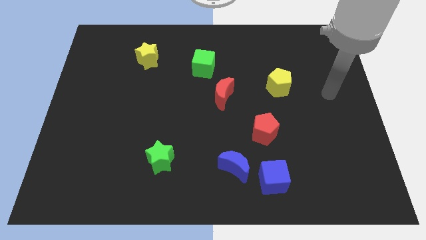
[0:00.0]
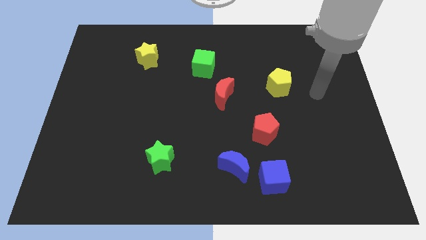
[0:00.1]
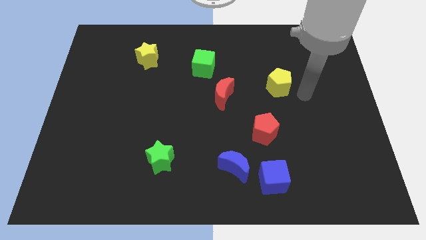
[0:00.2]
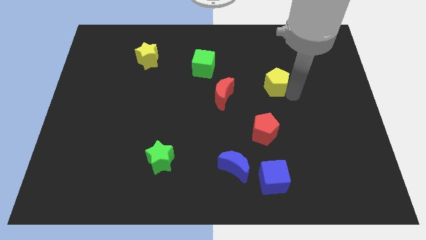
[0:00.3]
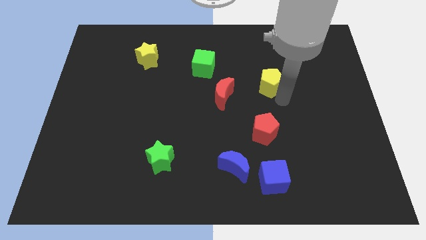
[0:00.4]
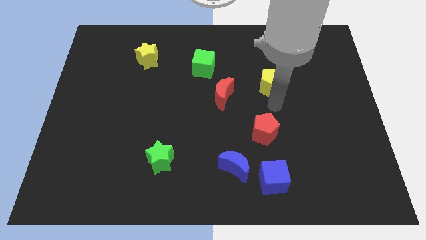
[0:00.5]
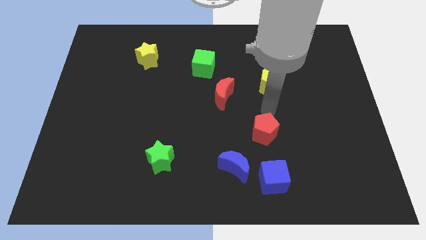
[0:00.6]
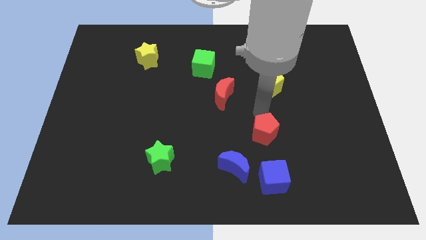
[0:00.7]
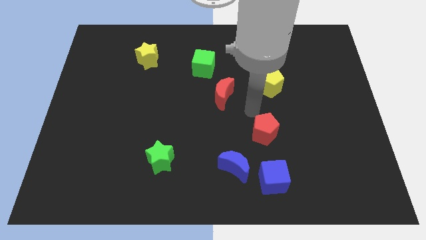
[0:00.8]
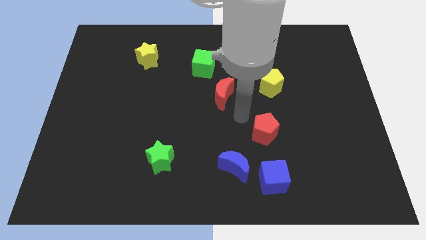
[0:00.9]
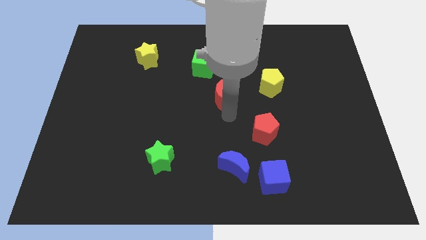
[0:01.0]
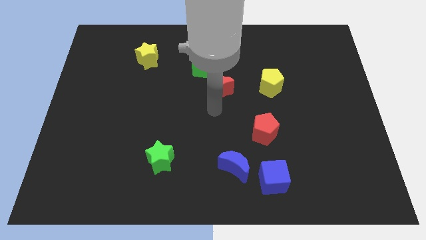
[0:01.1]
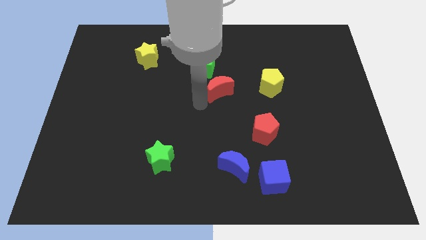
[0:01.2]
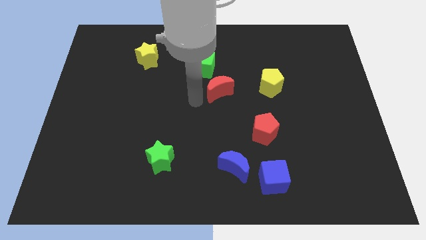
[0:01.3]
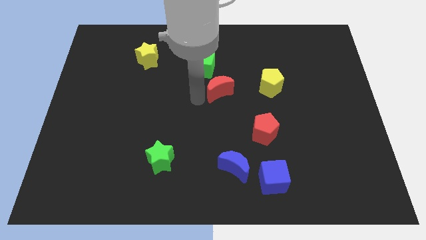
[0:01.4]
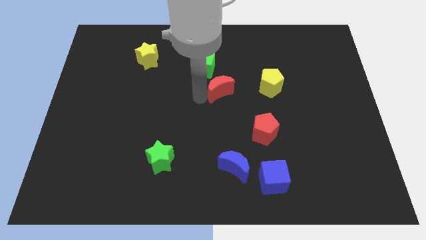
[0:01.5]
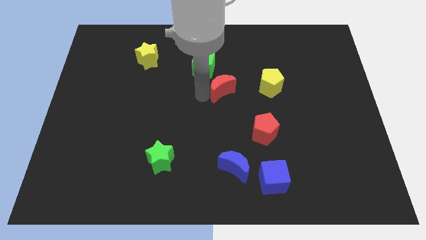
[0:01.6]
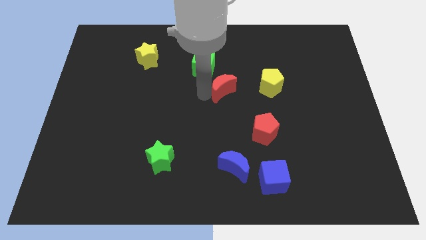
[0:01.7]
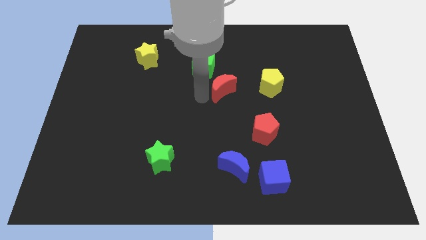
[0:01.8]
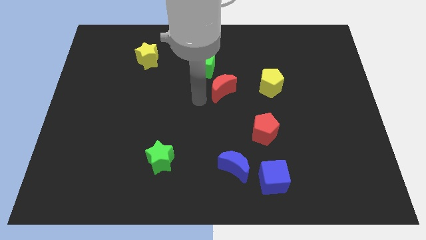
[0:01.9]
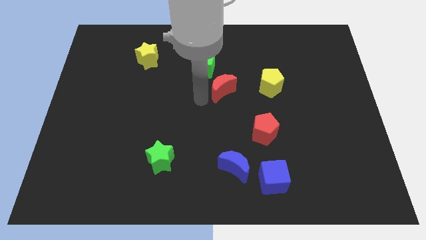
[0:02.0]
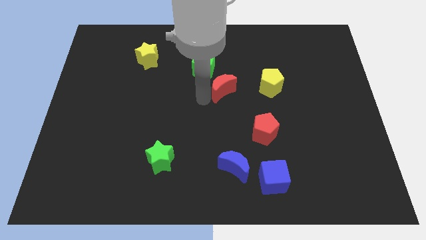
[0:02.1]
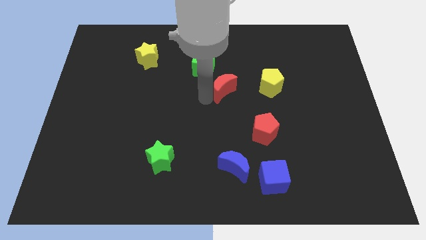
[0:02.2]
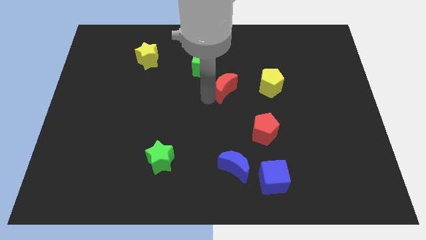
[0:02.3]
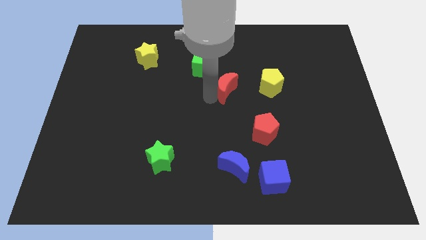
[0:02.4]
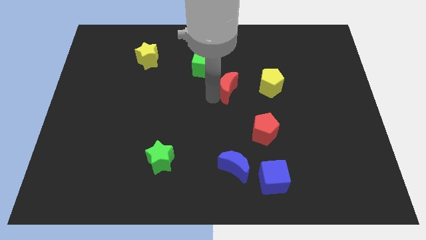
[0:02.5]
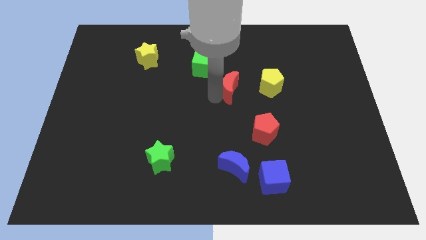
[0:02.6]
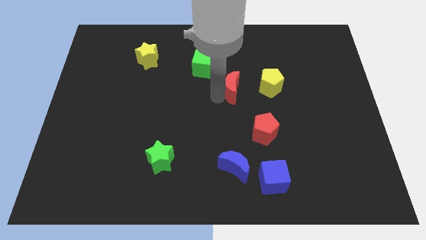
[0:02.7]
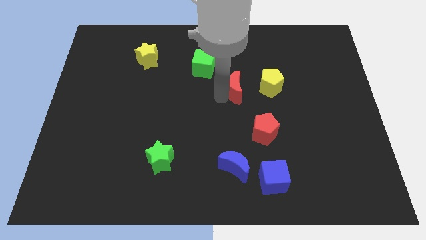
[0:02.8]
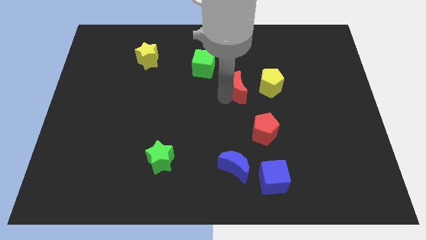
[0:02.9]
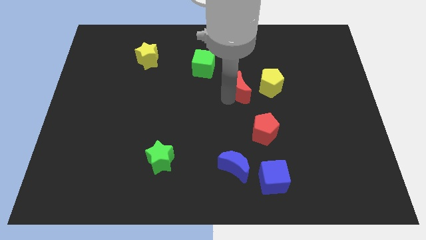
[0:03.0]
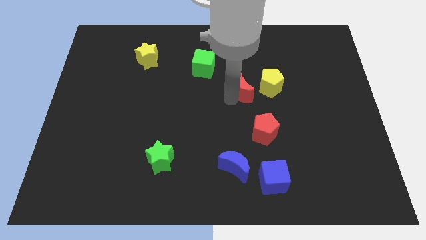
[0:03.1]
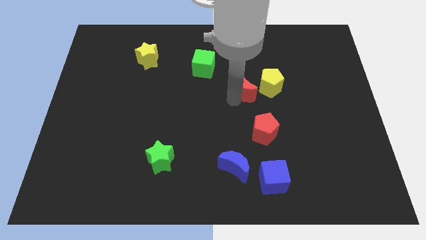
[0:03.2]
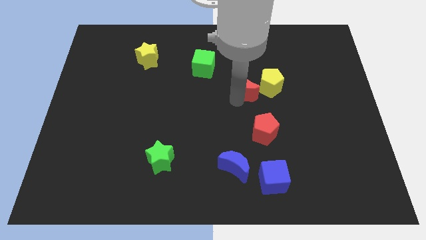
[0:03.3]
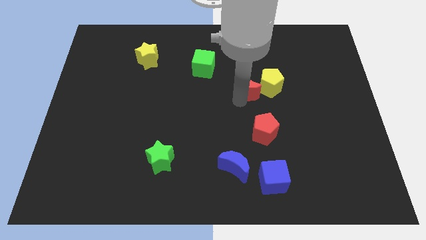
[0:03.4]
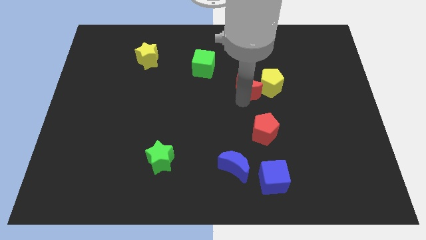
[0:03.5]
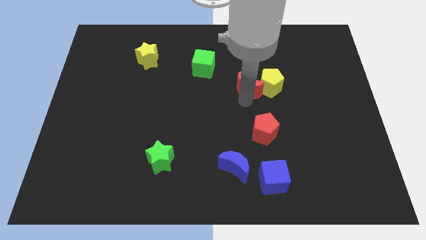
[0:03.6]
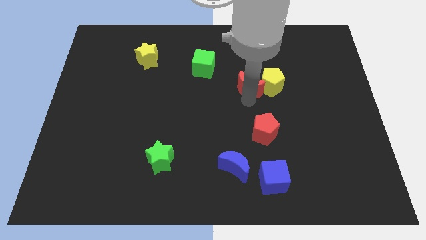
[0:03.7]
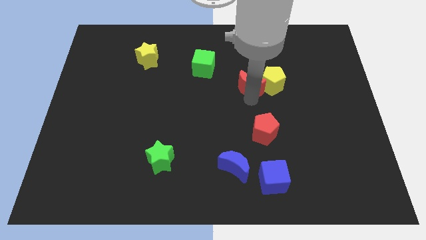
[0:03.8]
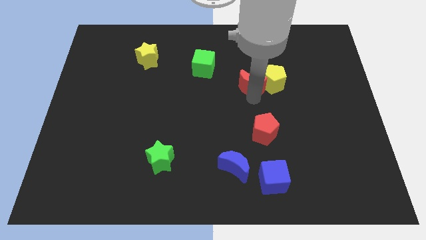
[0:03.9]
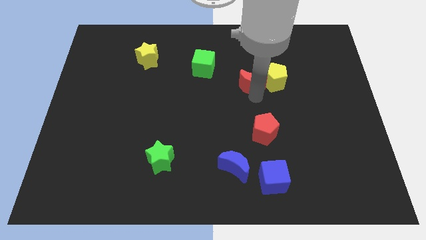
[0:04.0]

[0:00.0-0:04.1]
slightly move the red moon diagonally up and to the right

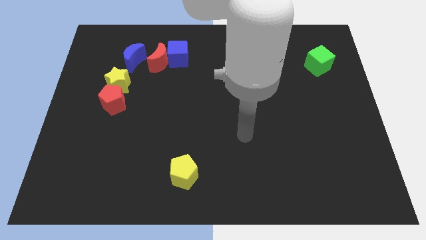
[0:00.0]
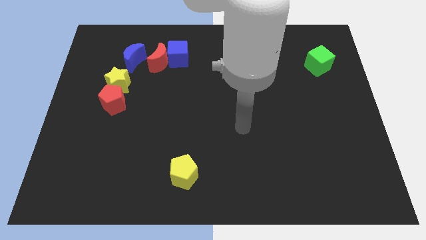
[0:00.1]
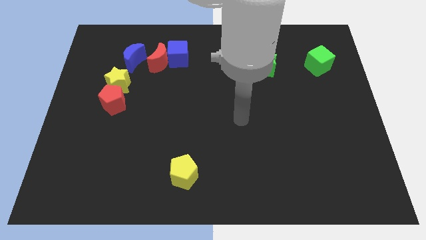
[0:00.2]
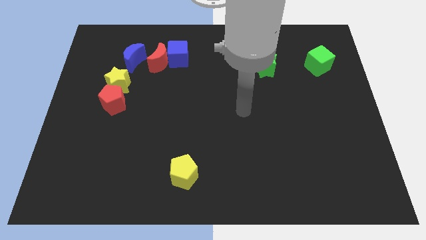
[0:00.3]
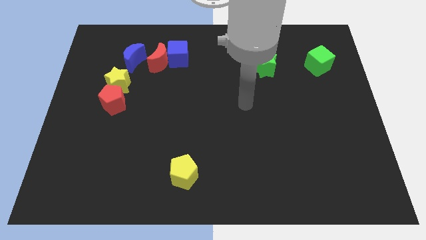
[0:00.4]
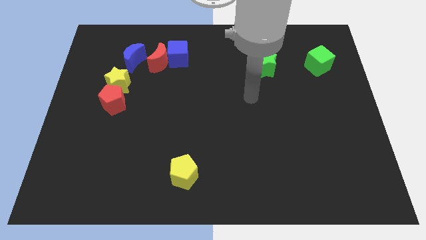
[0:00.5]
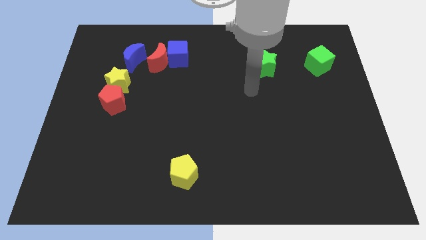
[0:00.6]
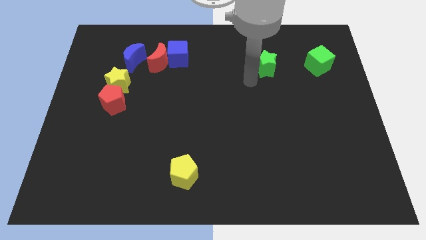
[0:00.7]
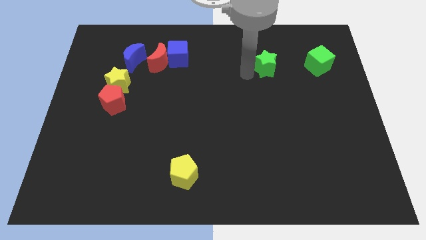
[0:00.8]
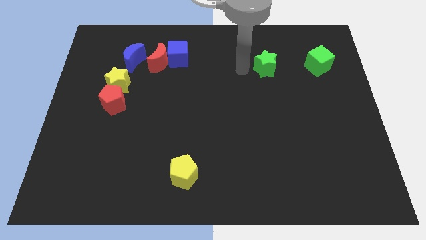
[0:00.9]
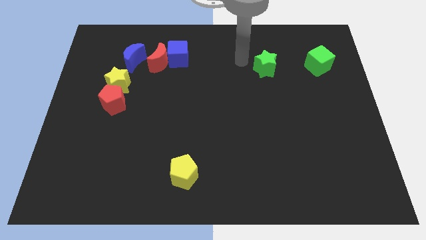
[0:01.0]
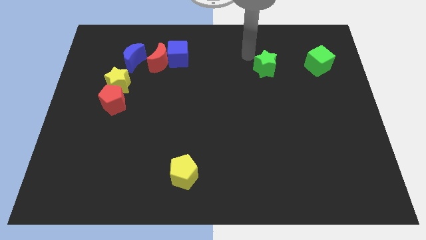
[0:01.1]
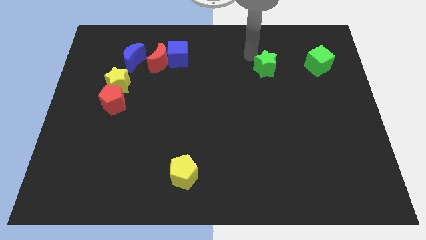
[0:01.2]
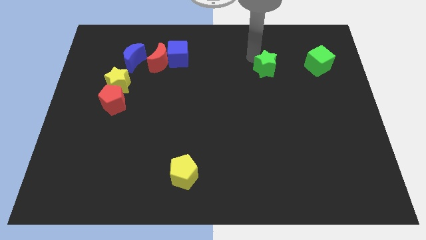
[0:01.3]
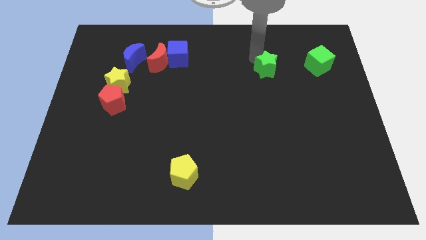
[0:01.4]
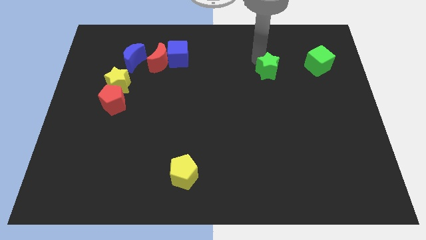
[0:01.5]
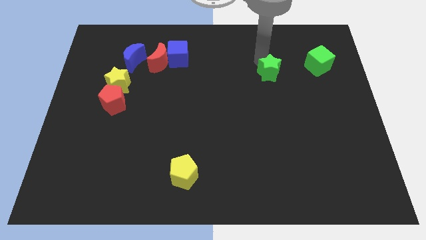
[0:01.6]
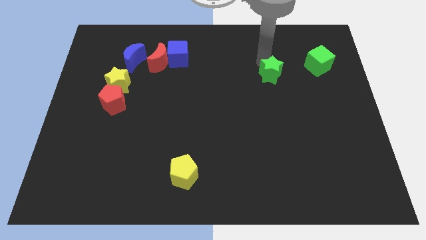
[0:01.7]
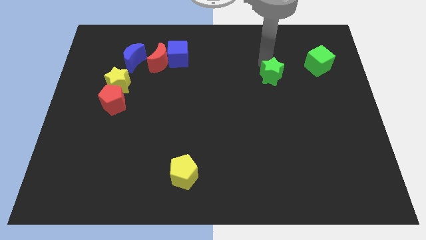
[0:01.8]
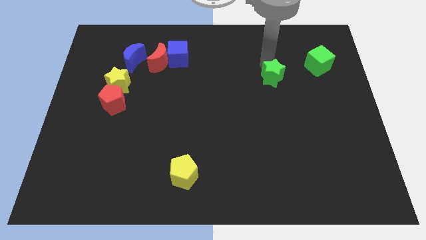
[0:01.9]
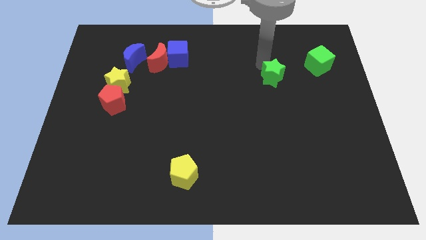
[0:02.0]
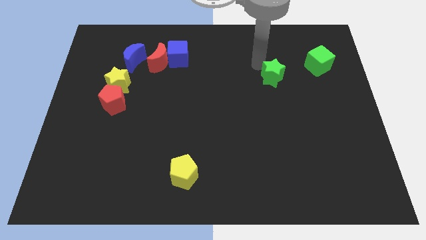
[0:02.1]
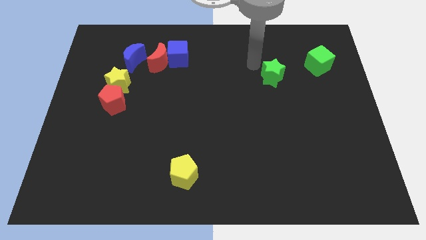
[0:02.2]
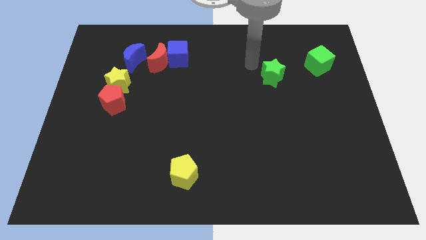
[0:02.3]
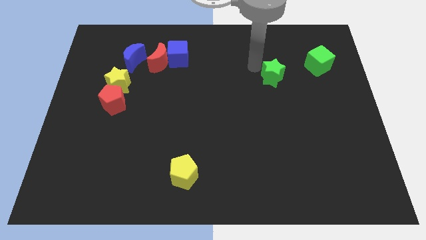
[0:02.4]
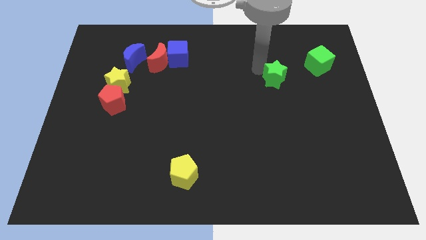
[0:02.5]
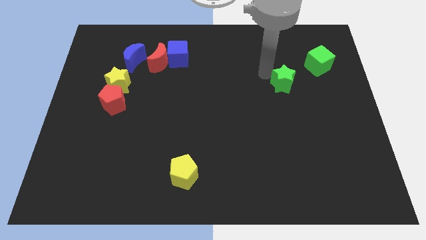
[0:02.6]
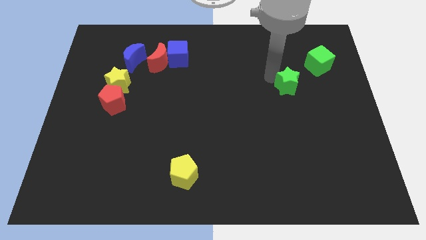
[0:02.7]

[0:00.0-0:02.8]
push the green star downwards and right a little

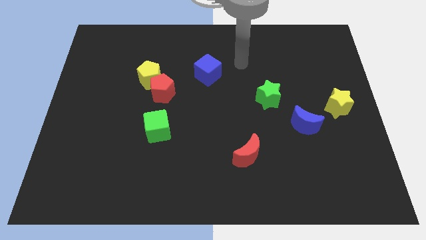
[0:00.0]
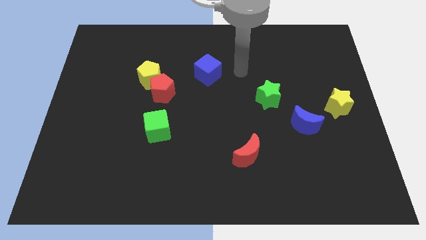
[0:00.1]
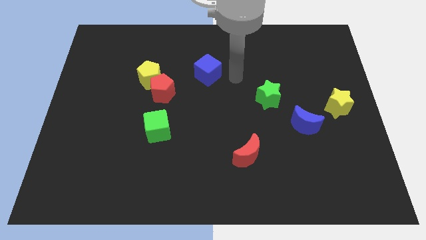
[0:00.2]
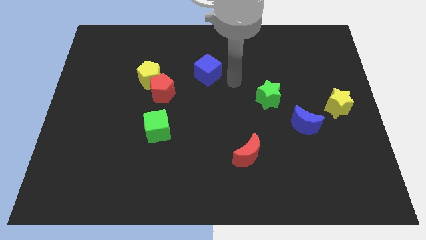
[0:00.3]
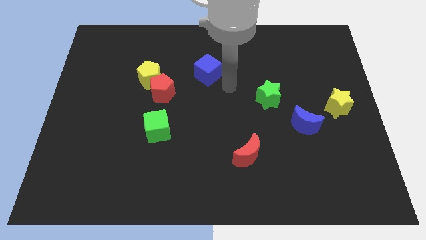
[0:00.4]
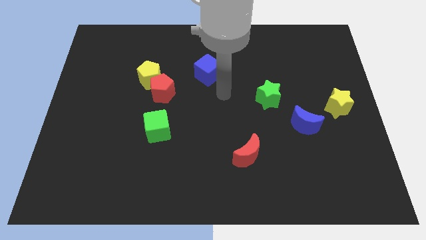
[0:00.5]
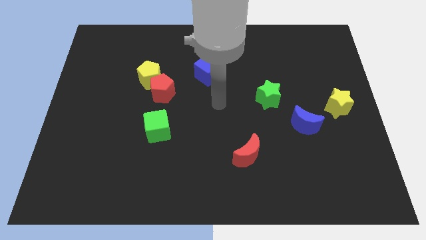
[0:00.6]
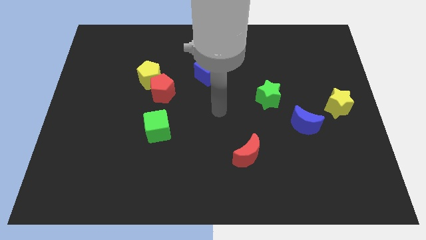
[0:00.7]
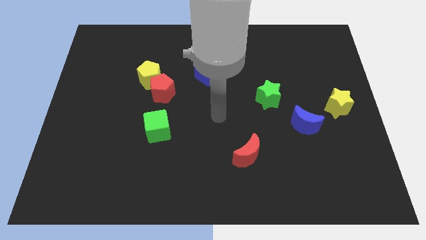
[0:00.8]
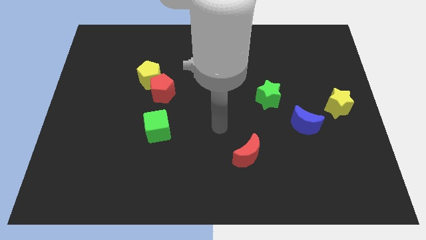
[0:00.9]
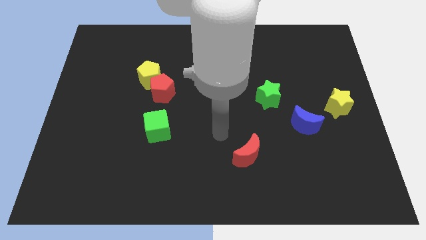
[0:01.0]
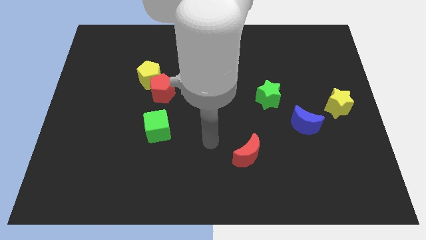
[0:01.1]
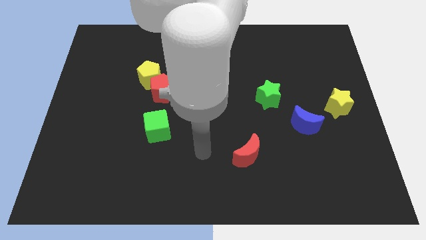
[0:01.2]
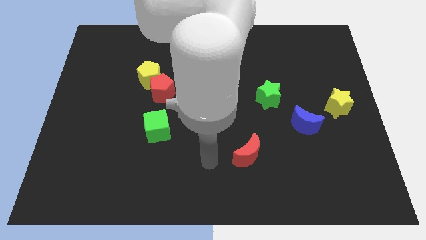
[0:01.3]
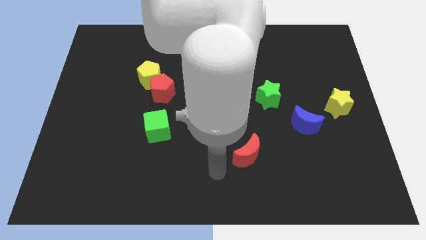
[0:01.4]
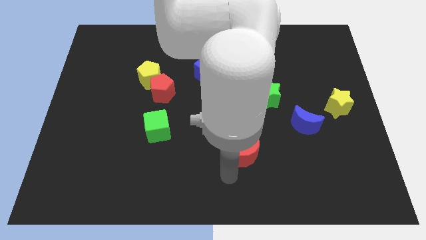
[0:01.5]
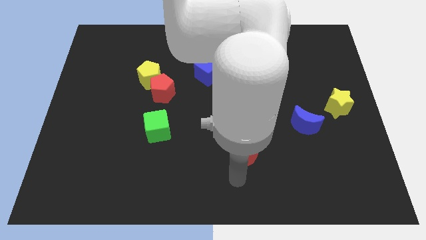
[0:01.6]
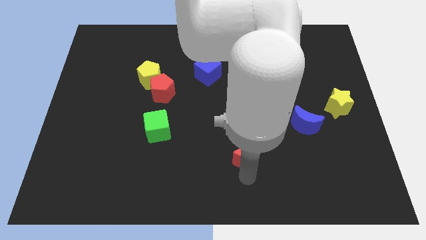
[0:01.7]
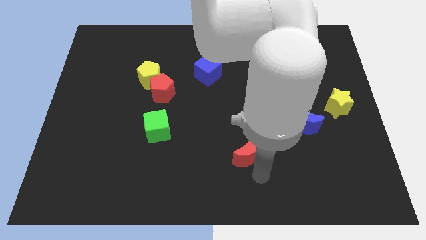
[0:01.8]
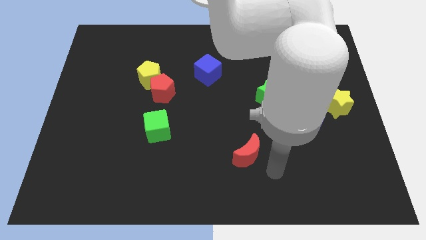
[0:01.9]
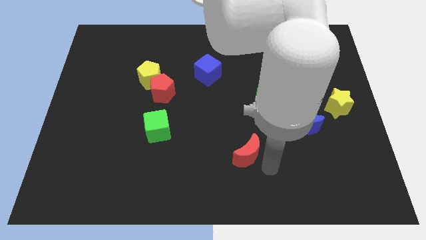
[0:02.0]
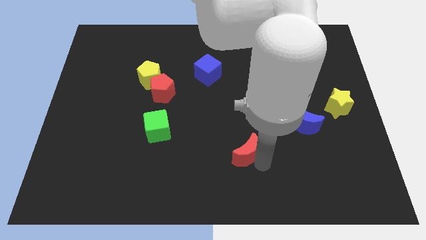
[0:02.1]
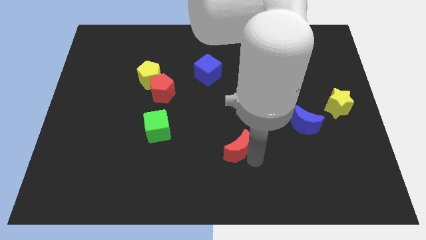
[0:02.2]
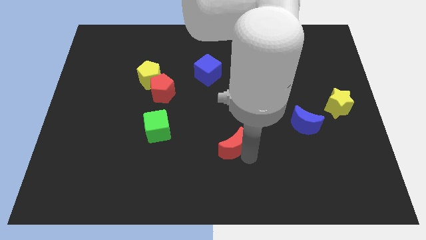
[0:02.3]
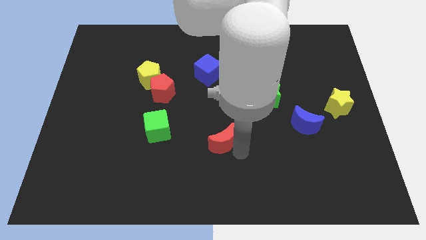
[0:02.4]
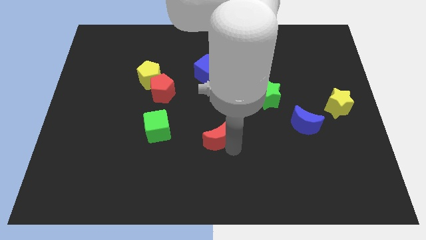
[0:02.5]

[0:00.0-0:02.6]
move the red moon somewhat upwards and then left
